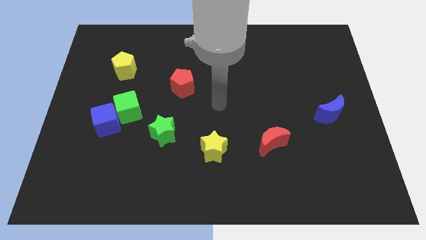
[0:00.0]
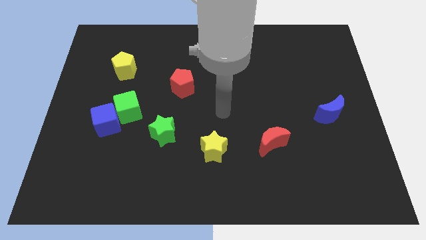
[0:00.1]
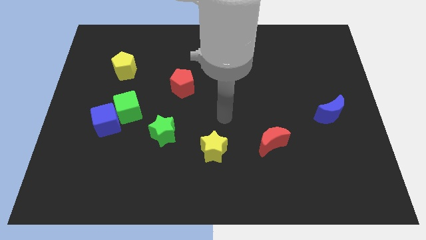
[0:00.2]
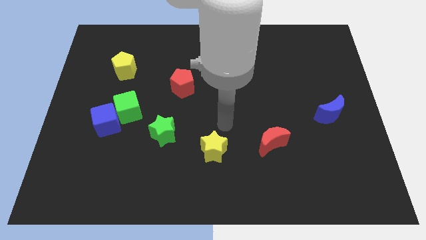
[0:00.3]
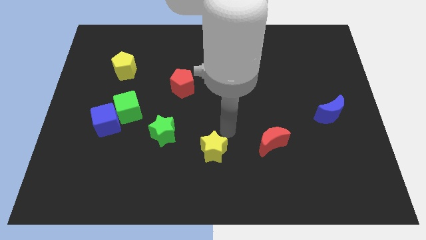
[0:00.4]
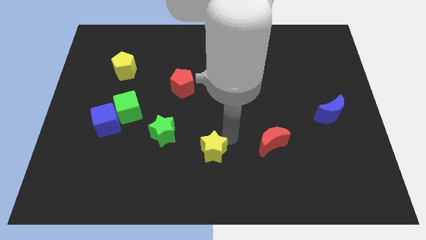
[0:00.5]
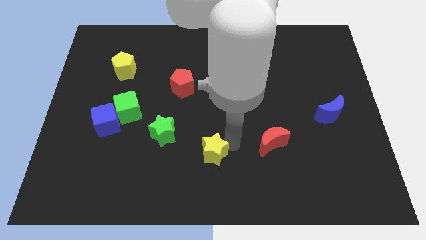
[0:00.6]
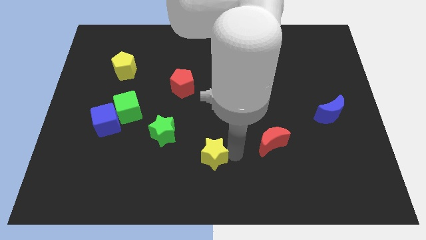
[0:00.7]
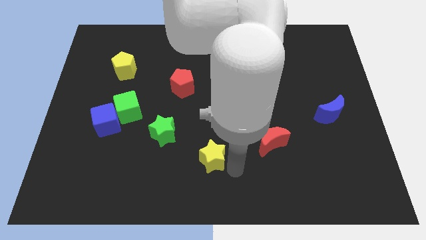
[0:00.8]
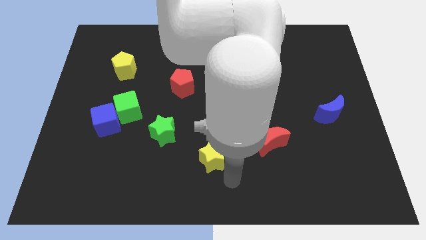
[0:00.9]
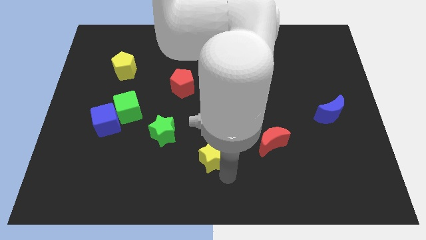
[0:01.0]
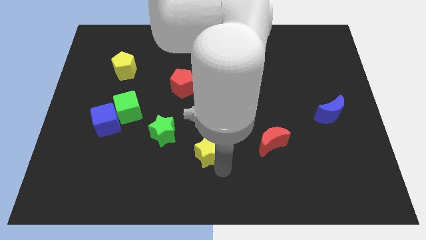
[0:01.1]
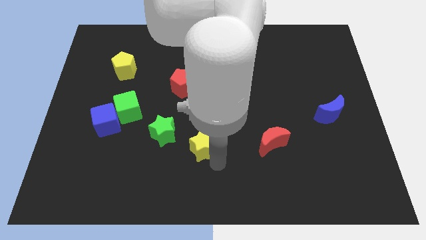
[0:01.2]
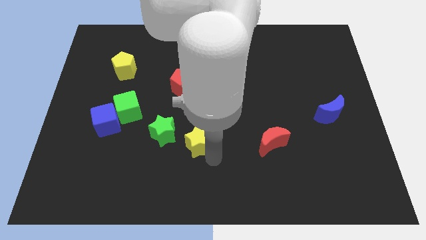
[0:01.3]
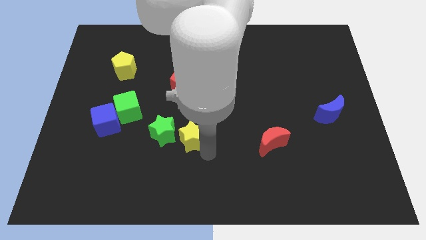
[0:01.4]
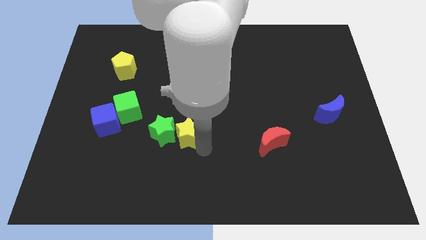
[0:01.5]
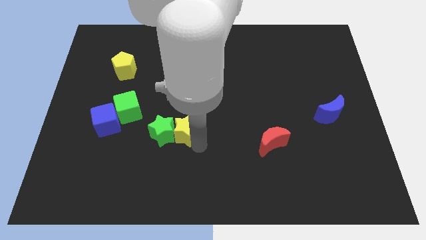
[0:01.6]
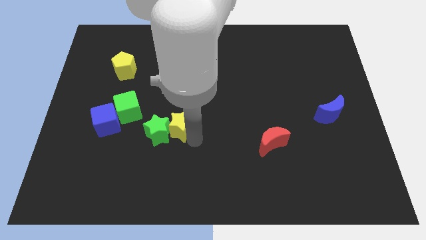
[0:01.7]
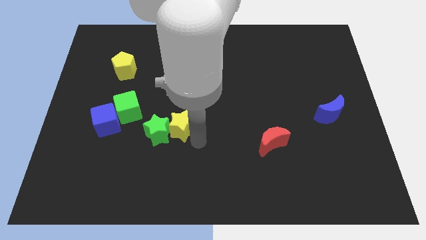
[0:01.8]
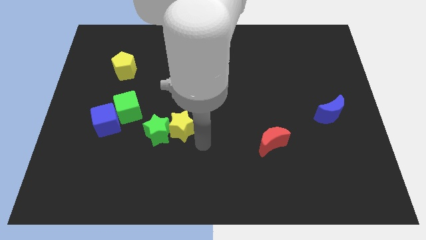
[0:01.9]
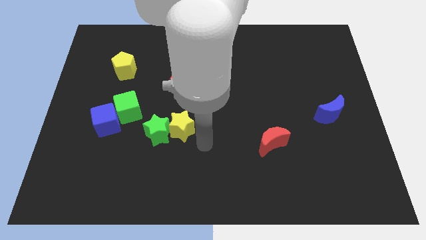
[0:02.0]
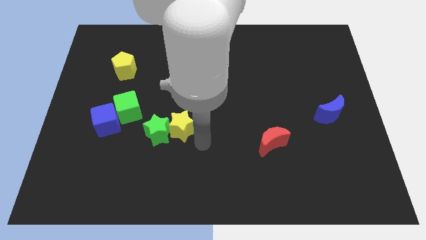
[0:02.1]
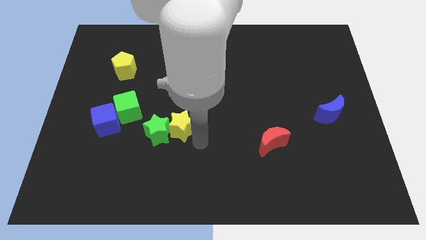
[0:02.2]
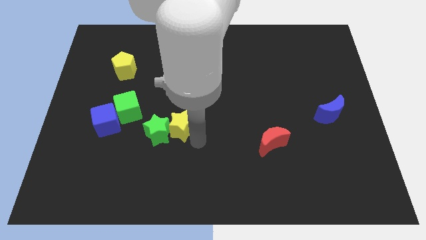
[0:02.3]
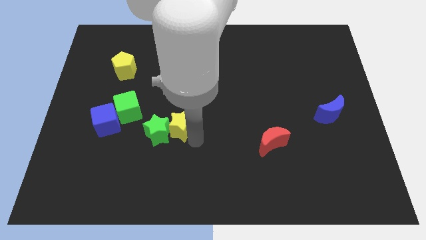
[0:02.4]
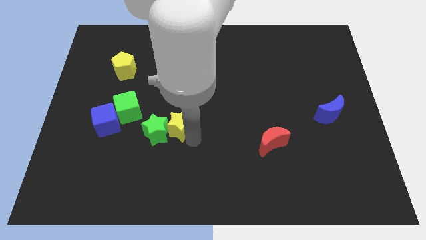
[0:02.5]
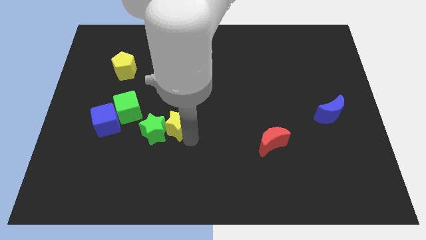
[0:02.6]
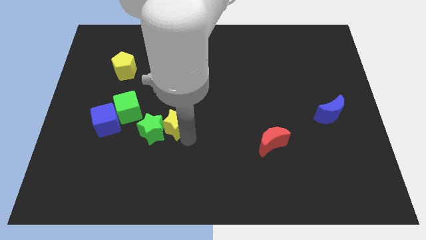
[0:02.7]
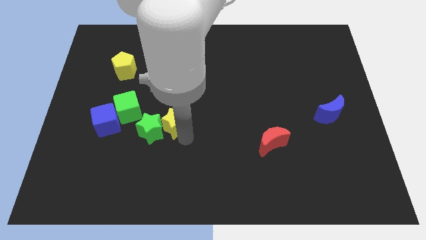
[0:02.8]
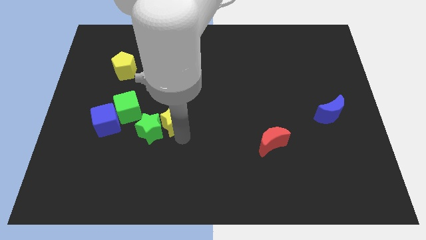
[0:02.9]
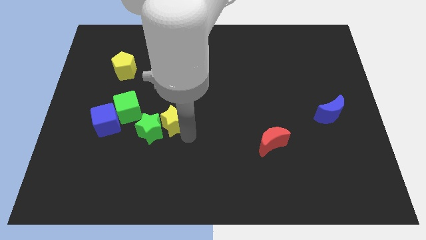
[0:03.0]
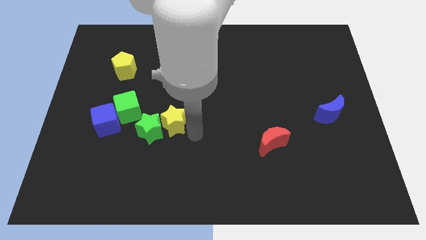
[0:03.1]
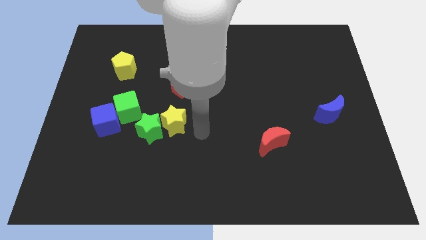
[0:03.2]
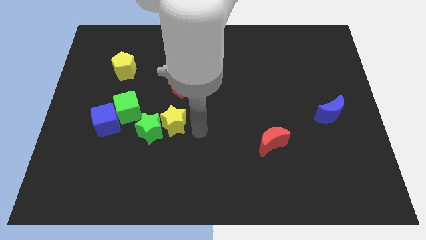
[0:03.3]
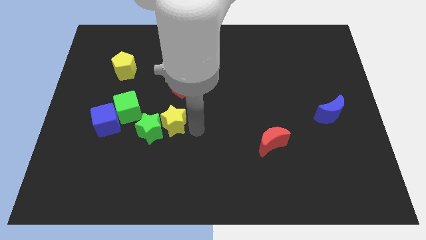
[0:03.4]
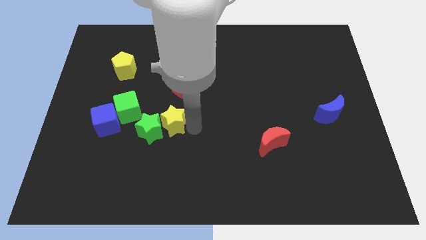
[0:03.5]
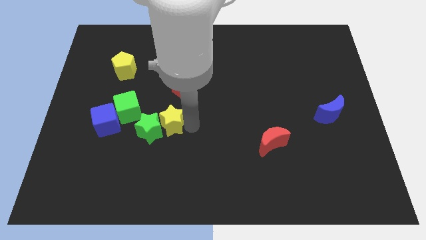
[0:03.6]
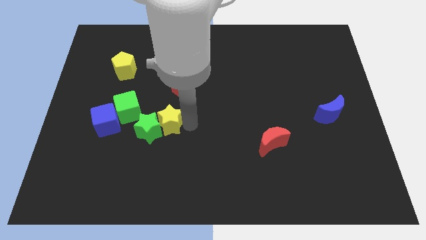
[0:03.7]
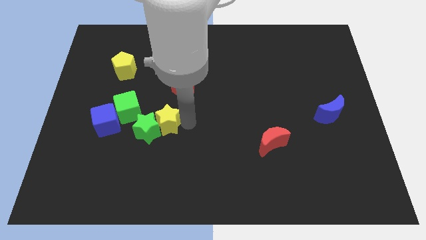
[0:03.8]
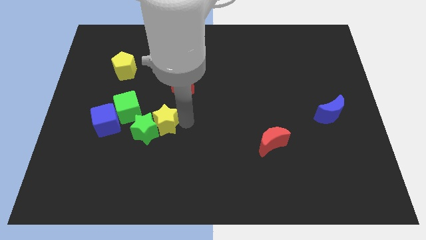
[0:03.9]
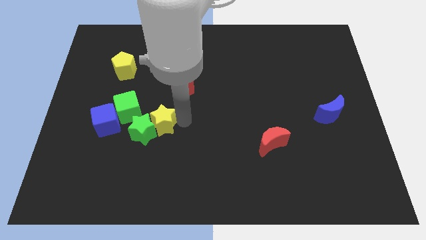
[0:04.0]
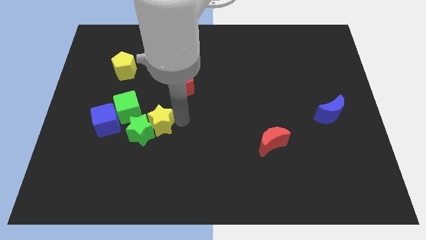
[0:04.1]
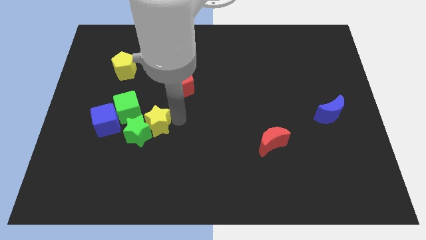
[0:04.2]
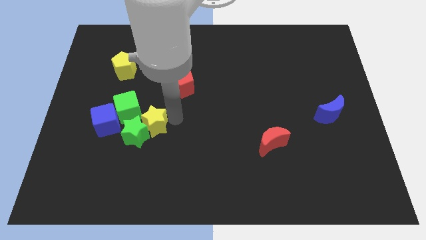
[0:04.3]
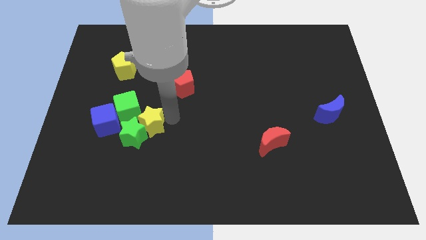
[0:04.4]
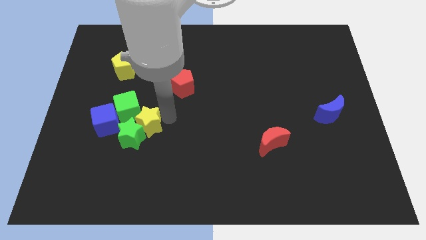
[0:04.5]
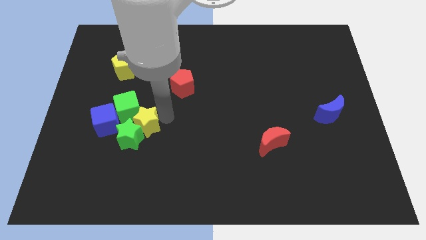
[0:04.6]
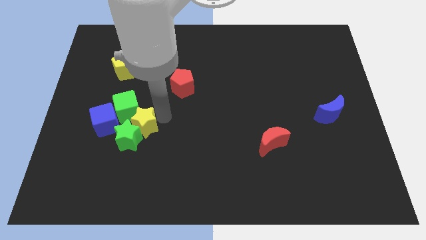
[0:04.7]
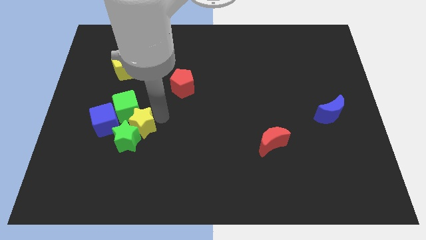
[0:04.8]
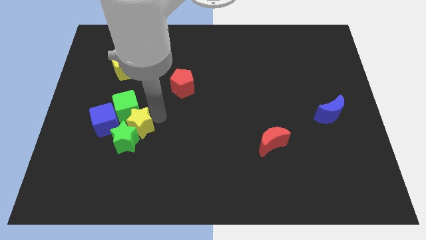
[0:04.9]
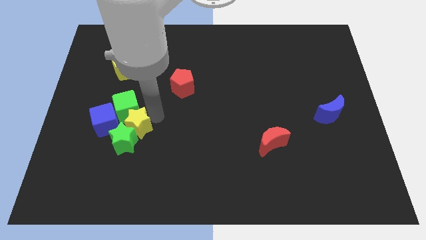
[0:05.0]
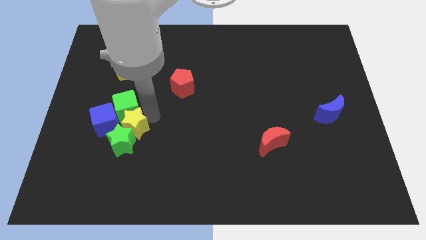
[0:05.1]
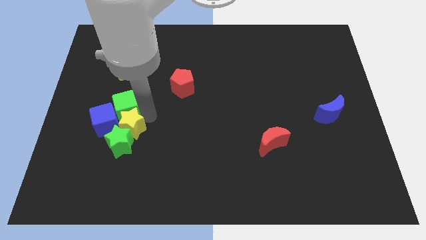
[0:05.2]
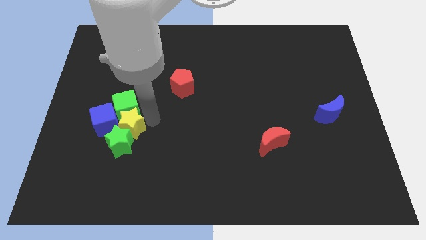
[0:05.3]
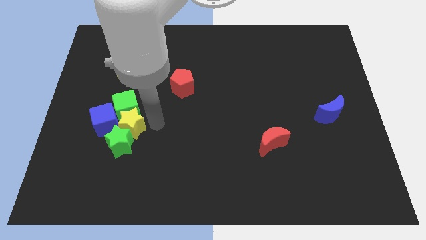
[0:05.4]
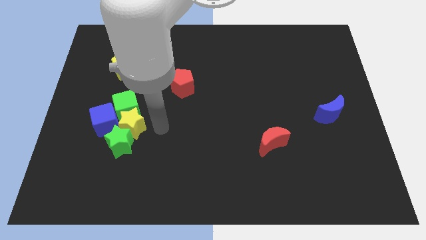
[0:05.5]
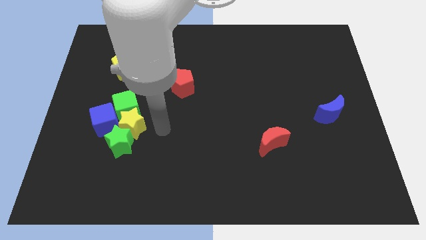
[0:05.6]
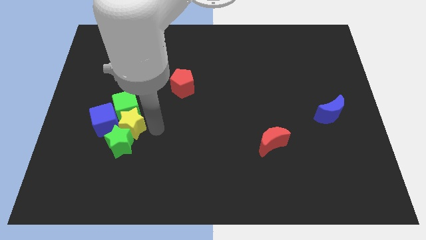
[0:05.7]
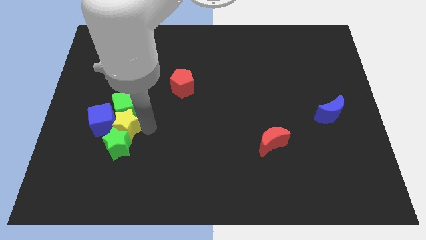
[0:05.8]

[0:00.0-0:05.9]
push the yellow star next to the blue cube
